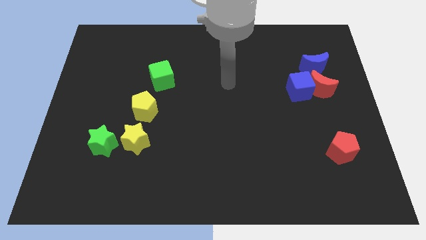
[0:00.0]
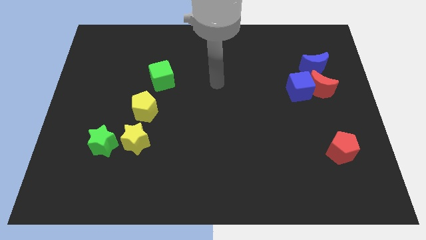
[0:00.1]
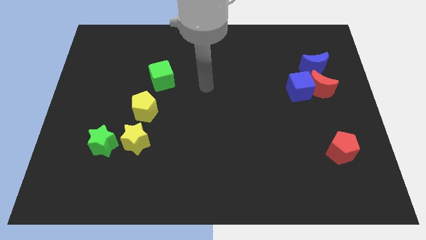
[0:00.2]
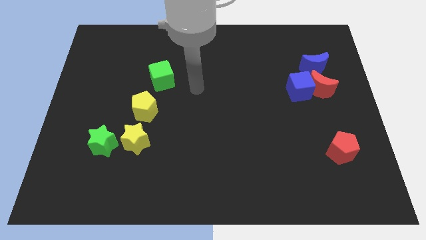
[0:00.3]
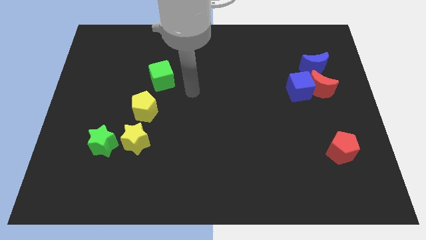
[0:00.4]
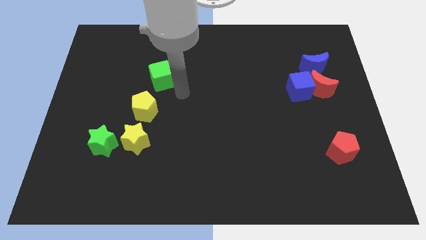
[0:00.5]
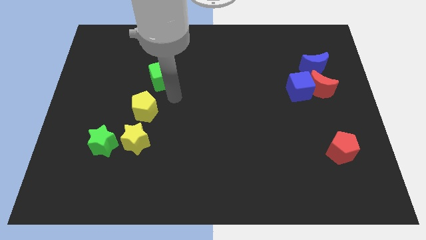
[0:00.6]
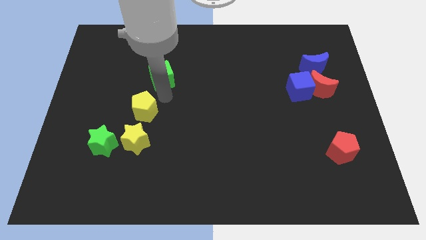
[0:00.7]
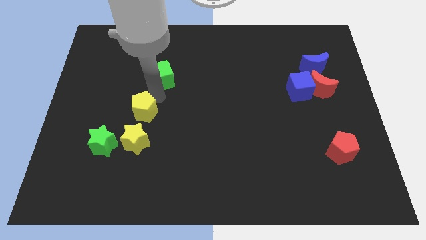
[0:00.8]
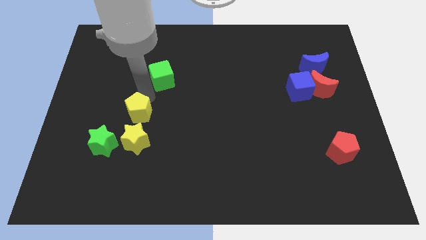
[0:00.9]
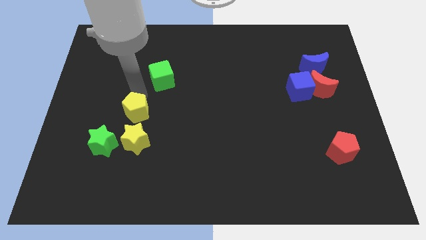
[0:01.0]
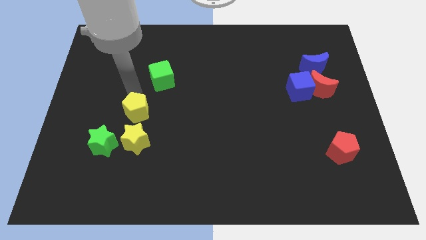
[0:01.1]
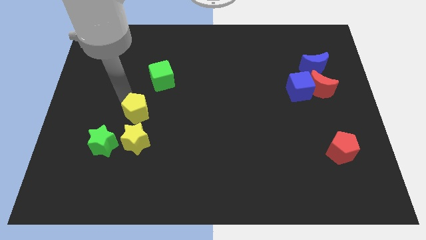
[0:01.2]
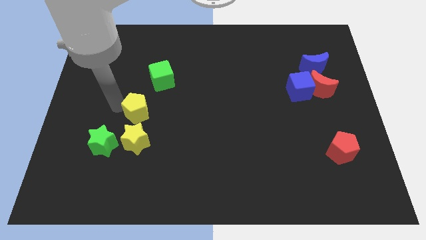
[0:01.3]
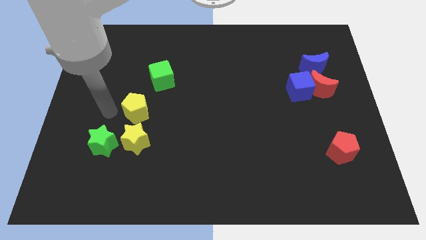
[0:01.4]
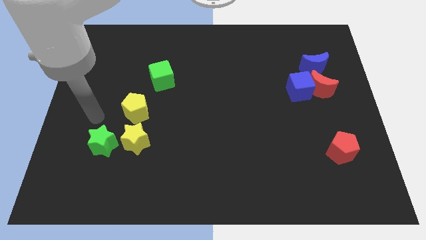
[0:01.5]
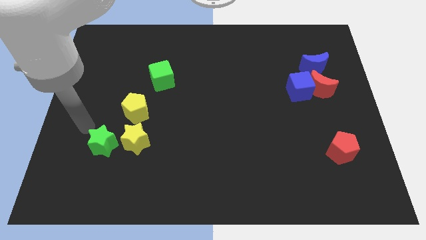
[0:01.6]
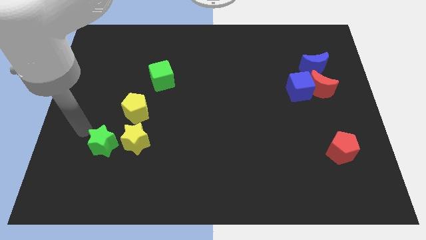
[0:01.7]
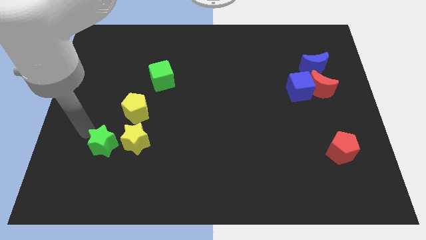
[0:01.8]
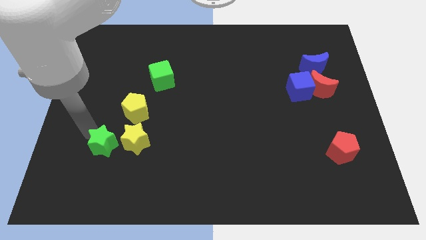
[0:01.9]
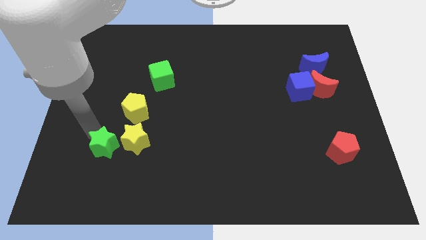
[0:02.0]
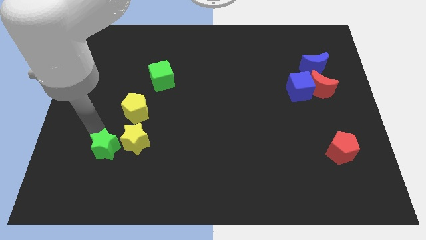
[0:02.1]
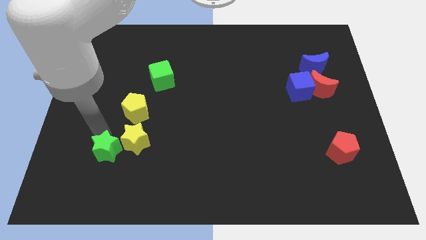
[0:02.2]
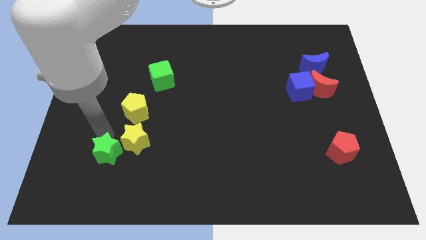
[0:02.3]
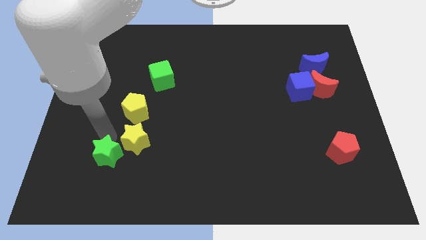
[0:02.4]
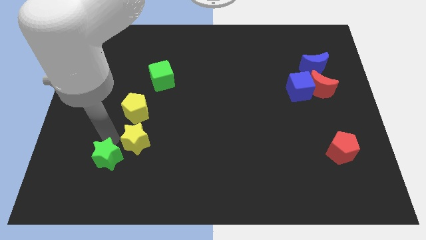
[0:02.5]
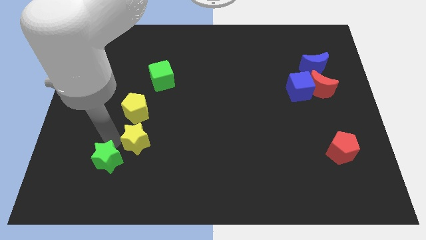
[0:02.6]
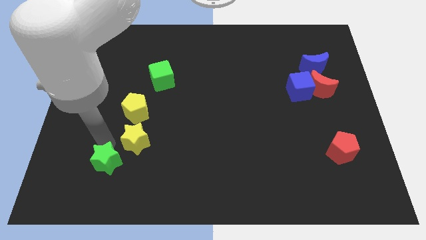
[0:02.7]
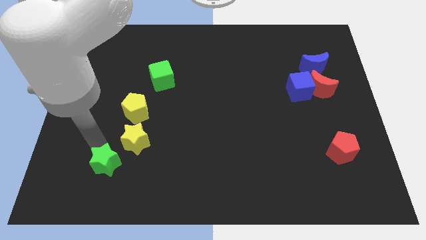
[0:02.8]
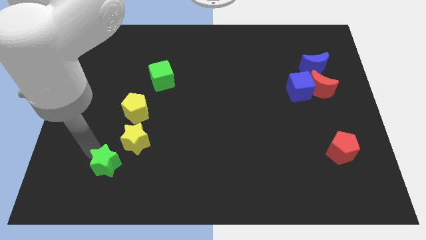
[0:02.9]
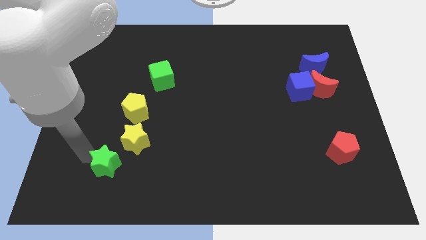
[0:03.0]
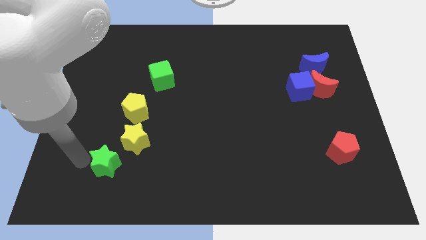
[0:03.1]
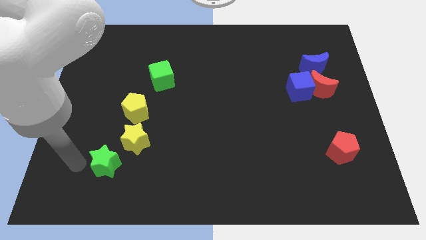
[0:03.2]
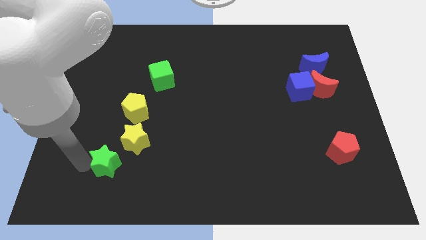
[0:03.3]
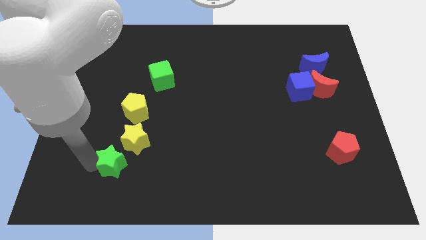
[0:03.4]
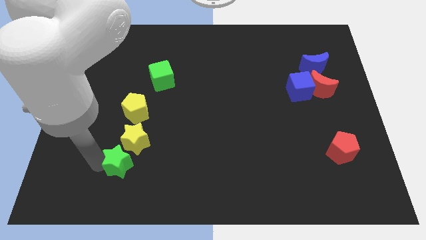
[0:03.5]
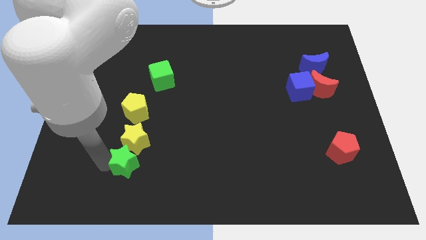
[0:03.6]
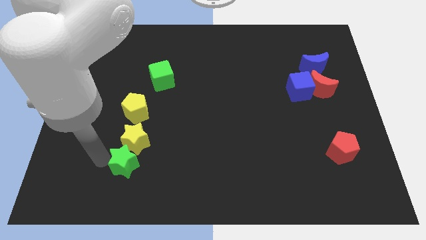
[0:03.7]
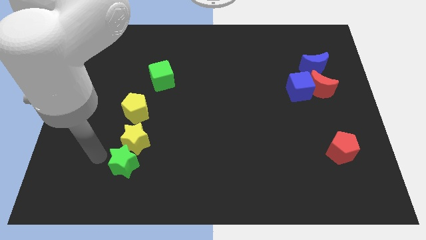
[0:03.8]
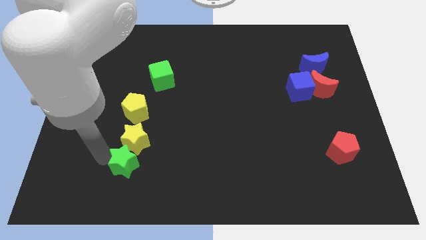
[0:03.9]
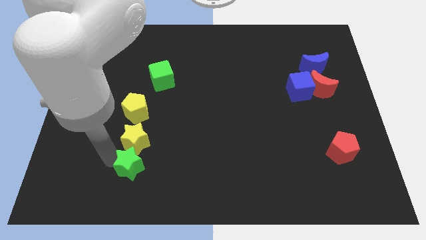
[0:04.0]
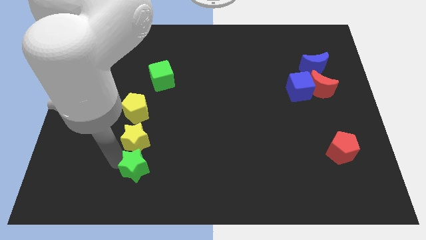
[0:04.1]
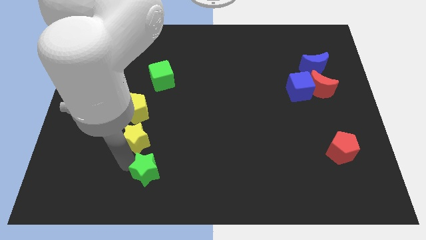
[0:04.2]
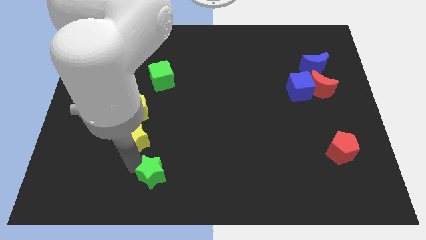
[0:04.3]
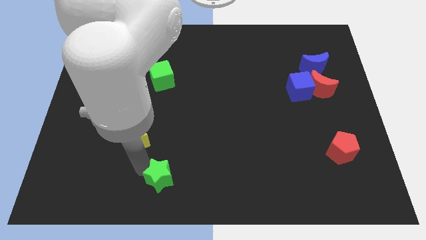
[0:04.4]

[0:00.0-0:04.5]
push the green star to the bottom

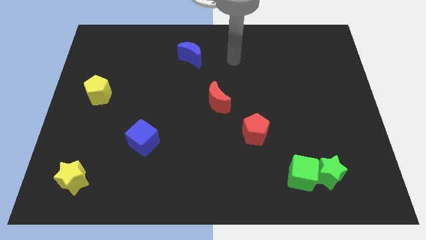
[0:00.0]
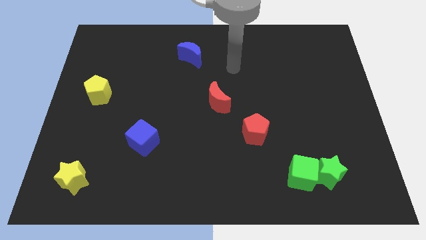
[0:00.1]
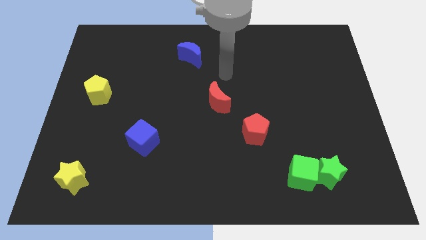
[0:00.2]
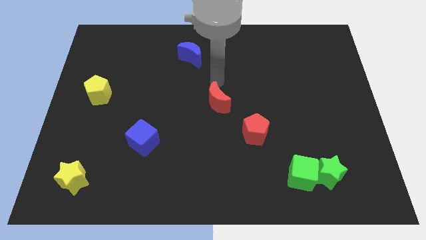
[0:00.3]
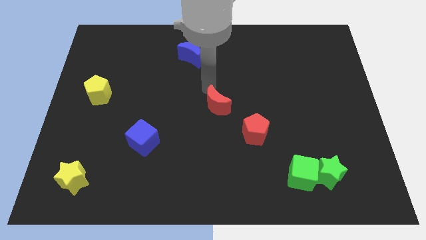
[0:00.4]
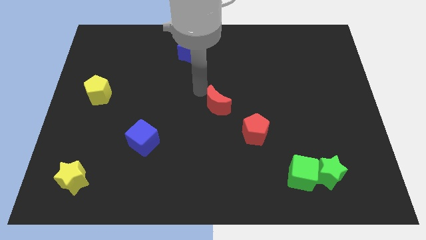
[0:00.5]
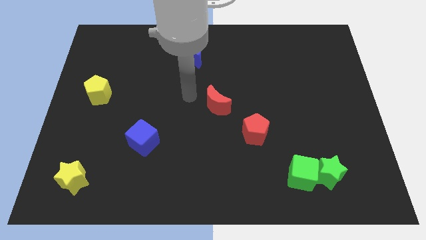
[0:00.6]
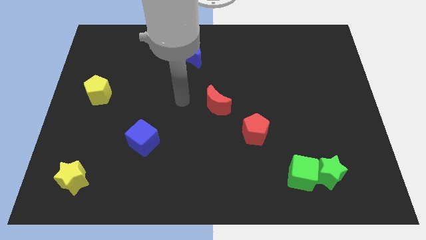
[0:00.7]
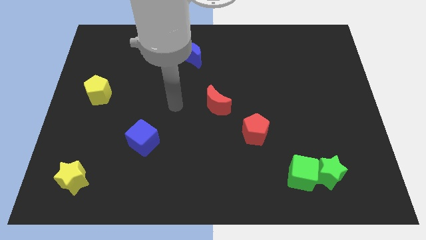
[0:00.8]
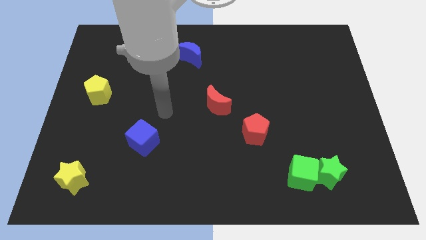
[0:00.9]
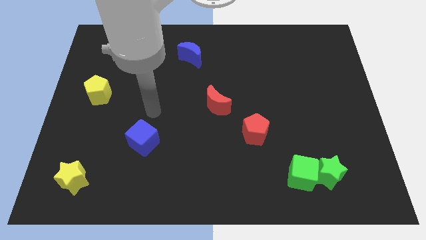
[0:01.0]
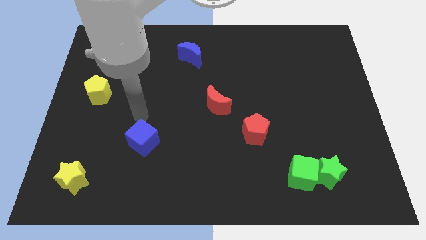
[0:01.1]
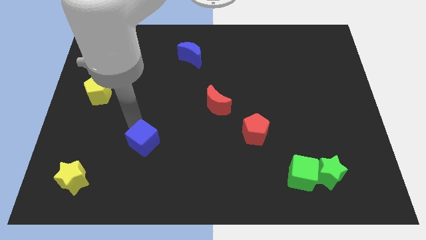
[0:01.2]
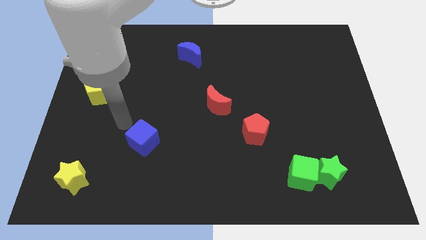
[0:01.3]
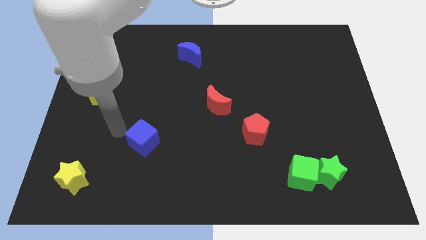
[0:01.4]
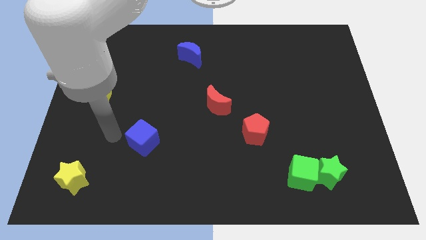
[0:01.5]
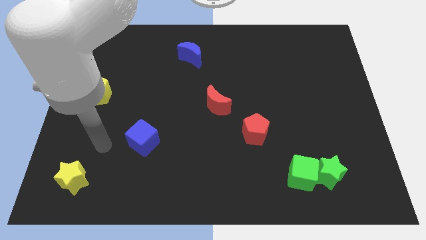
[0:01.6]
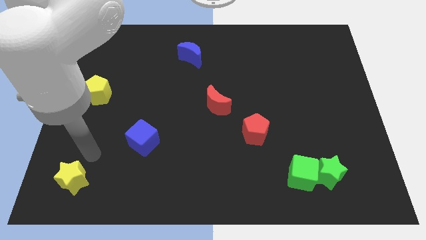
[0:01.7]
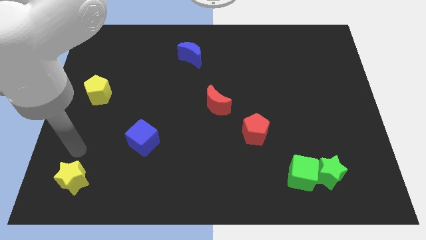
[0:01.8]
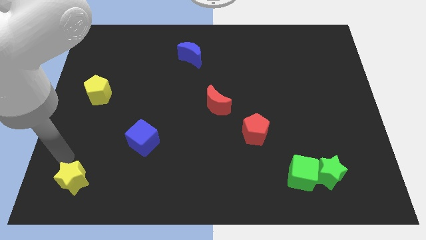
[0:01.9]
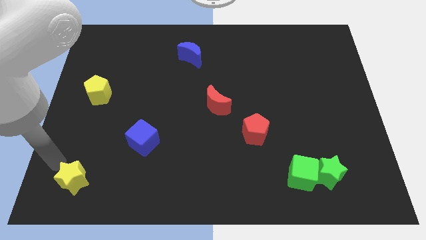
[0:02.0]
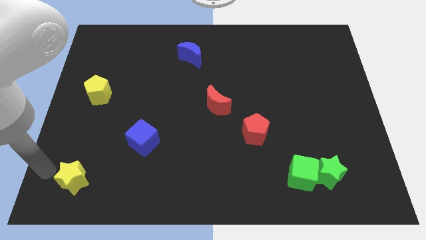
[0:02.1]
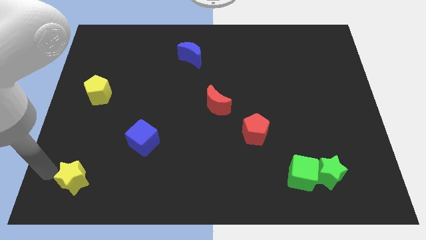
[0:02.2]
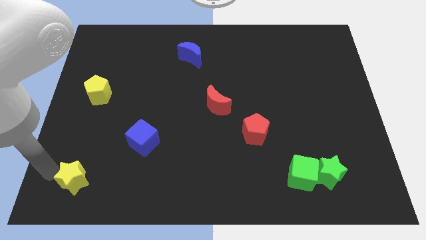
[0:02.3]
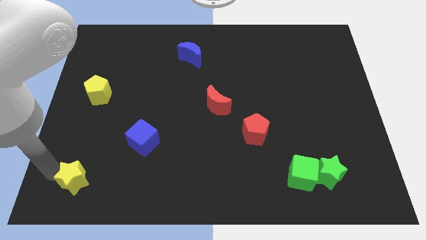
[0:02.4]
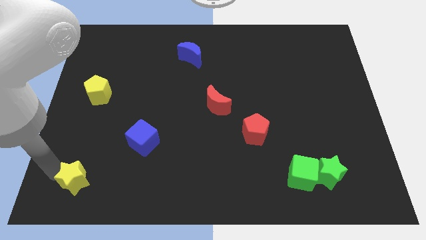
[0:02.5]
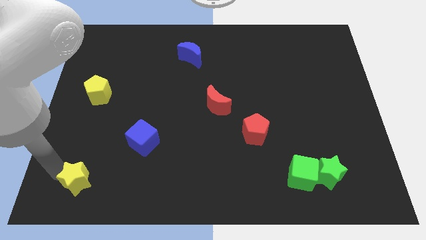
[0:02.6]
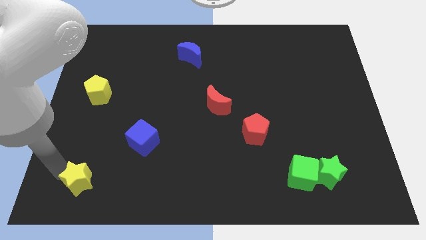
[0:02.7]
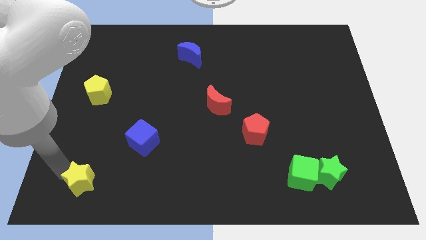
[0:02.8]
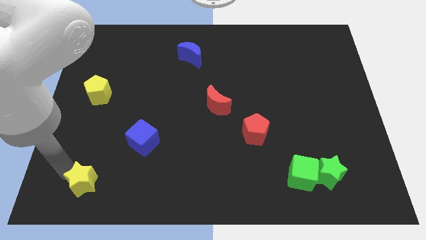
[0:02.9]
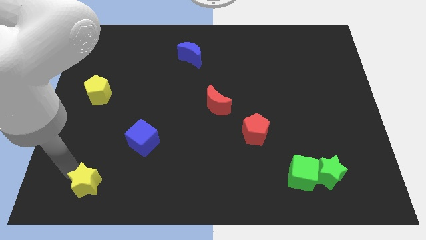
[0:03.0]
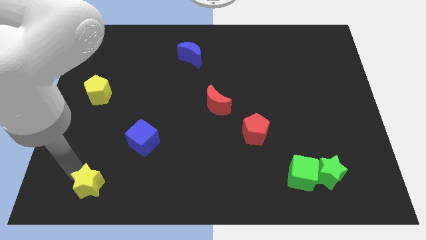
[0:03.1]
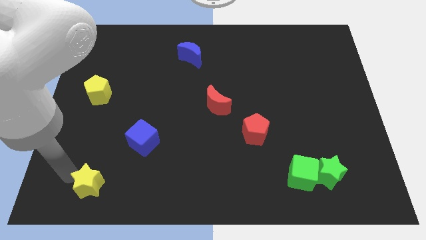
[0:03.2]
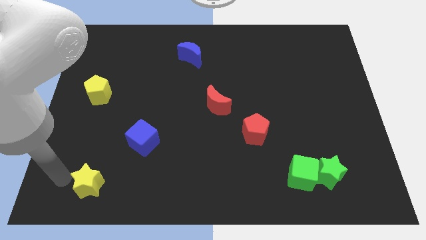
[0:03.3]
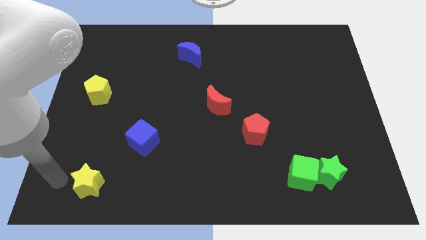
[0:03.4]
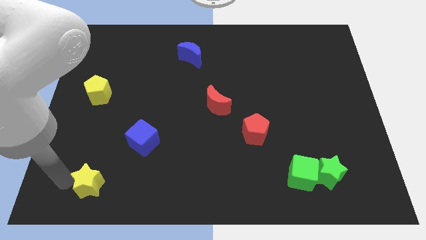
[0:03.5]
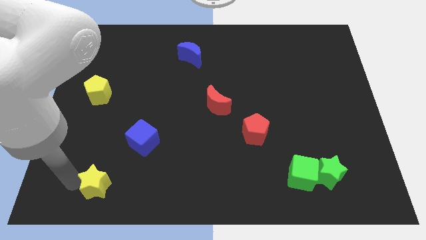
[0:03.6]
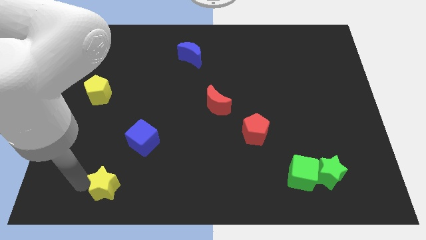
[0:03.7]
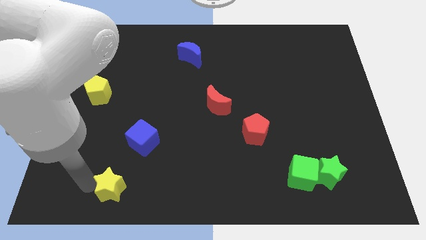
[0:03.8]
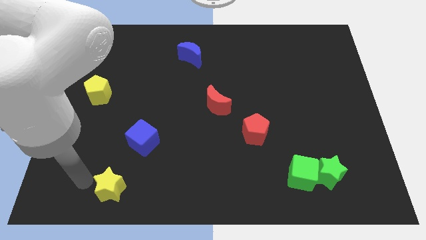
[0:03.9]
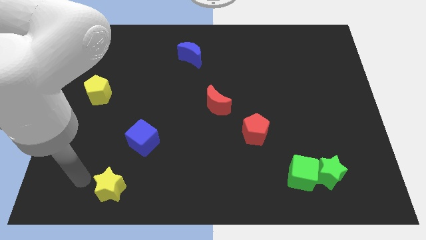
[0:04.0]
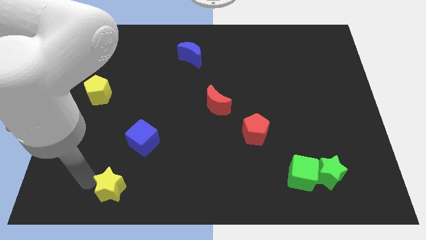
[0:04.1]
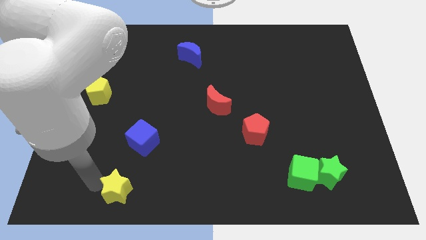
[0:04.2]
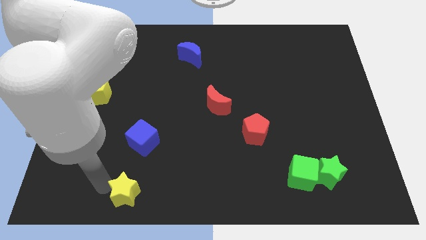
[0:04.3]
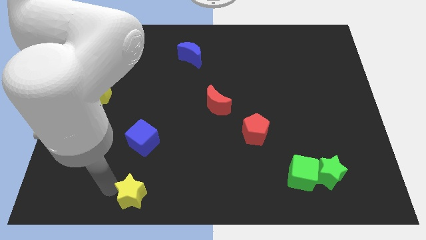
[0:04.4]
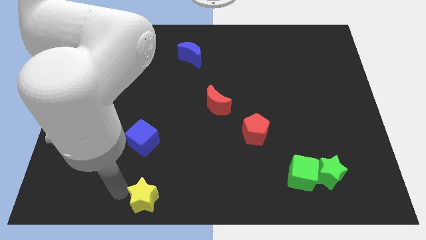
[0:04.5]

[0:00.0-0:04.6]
slide the yellow star to the bottom side
